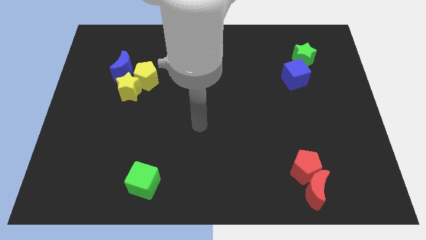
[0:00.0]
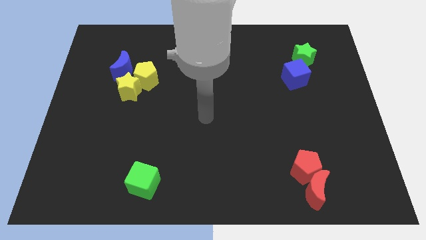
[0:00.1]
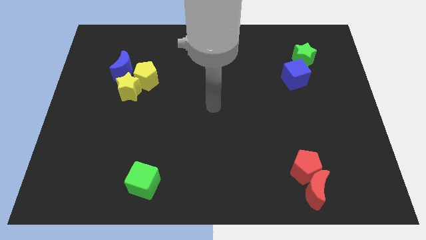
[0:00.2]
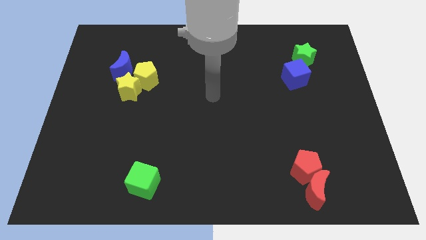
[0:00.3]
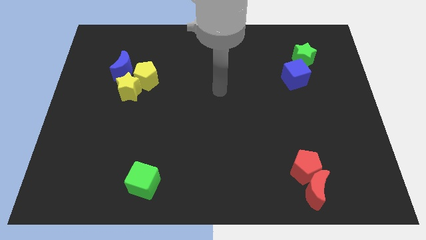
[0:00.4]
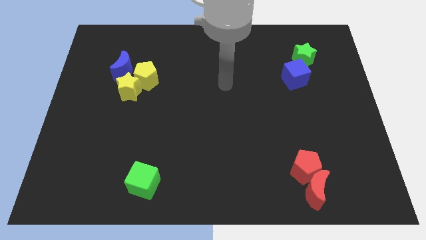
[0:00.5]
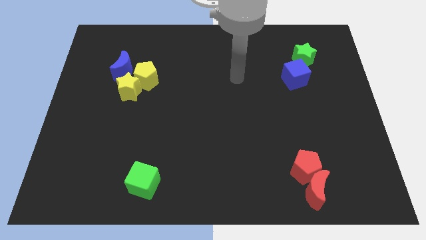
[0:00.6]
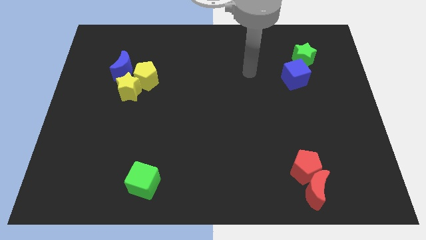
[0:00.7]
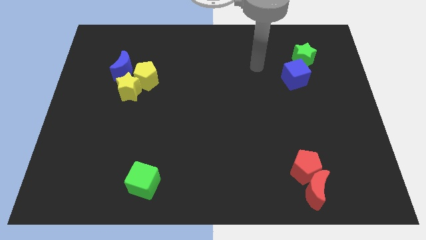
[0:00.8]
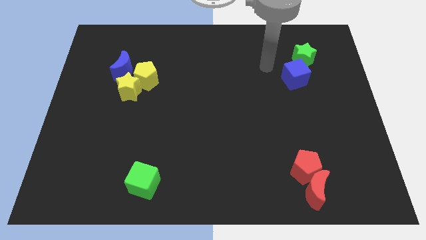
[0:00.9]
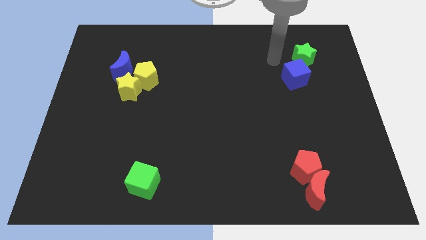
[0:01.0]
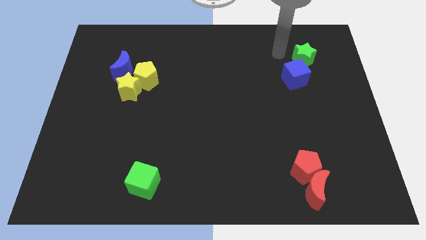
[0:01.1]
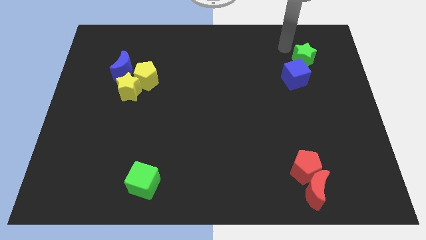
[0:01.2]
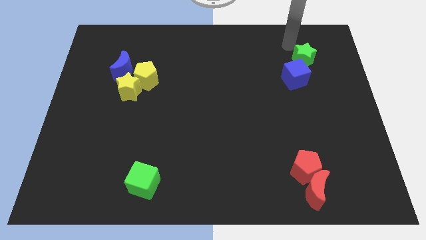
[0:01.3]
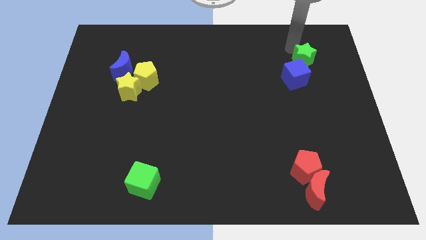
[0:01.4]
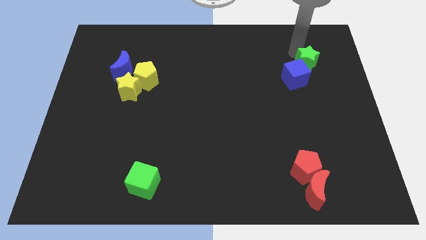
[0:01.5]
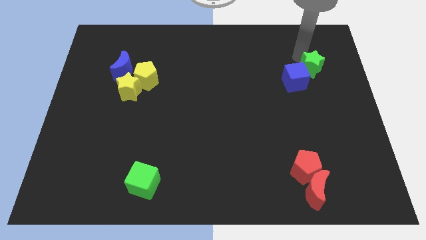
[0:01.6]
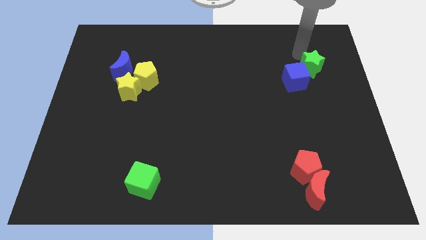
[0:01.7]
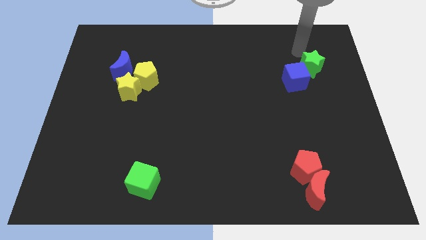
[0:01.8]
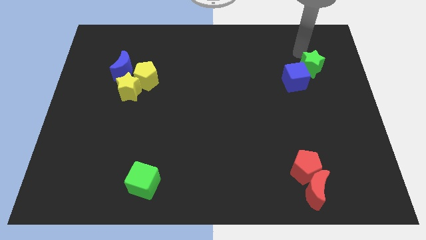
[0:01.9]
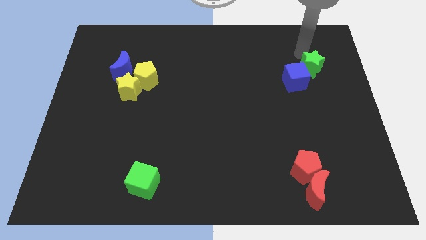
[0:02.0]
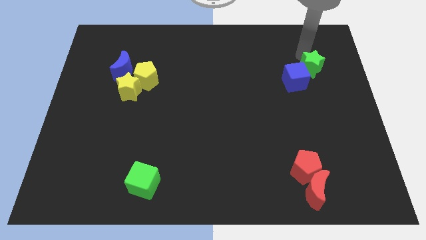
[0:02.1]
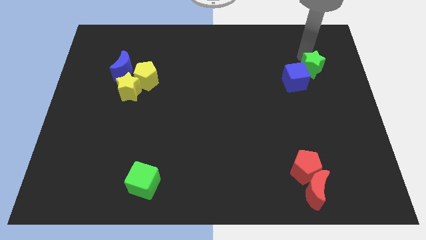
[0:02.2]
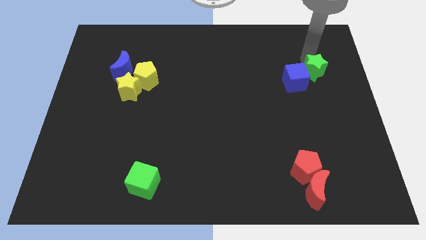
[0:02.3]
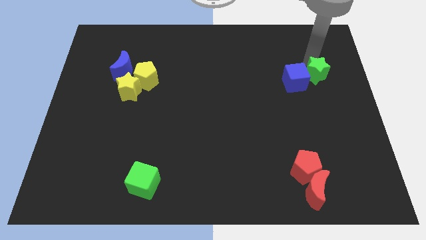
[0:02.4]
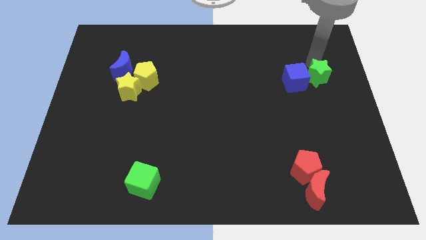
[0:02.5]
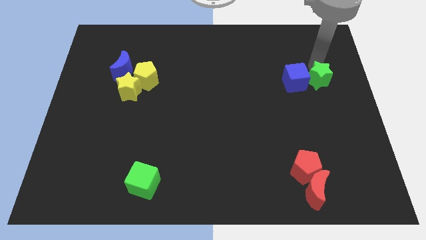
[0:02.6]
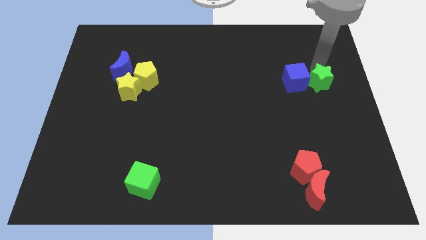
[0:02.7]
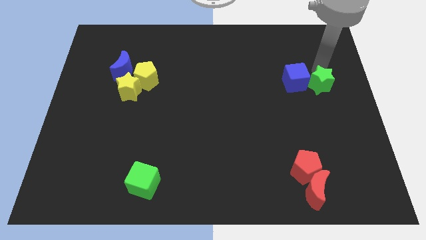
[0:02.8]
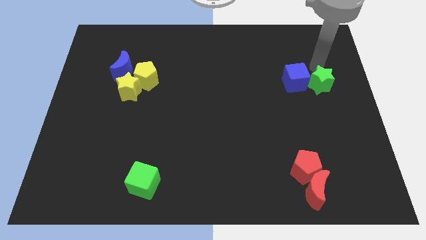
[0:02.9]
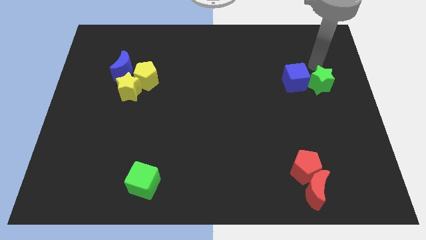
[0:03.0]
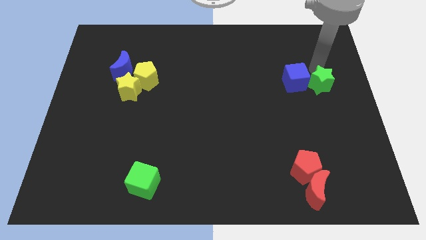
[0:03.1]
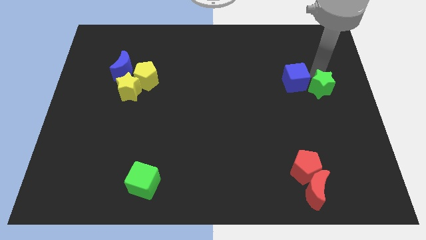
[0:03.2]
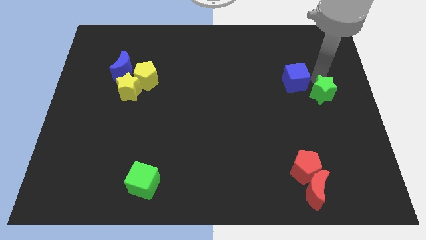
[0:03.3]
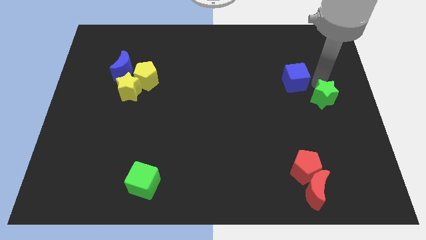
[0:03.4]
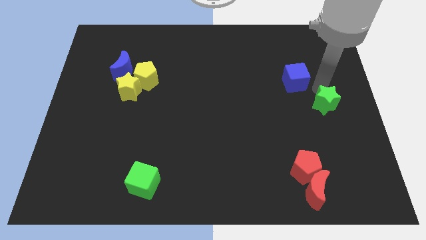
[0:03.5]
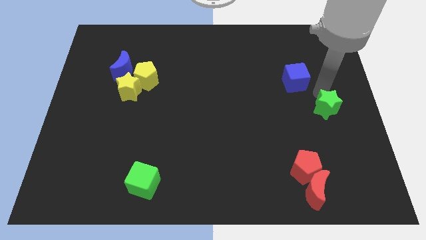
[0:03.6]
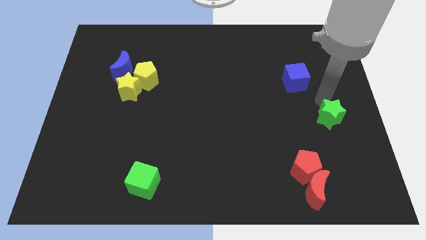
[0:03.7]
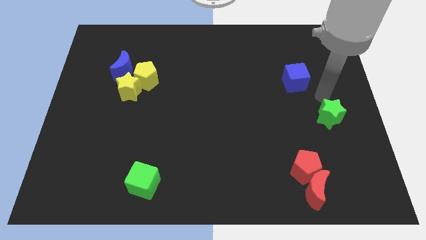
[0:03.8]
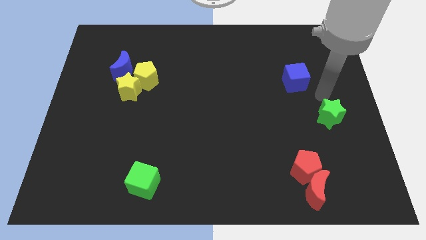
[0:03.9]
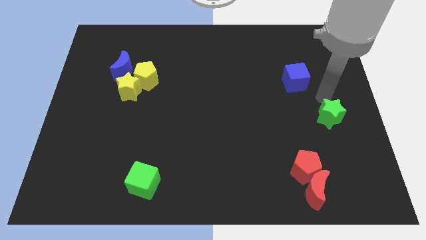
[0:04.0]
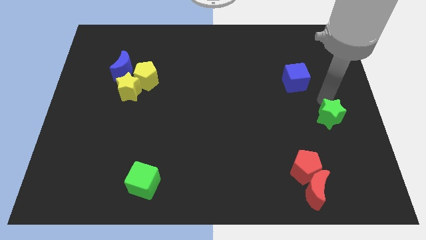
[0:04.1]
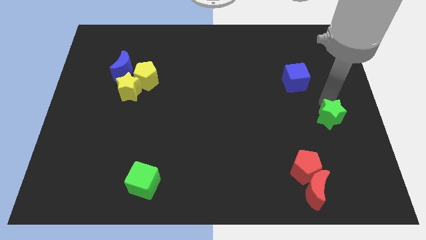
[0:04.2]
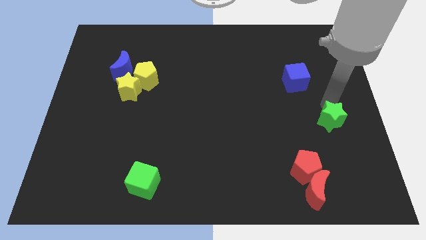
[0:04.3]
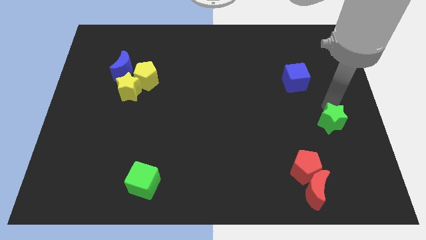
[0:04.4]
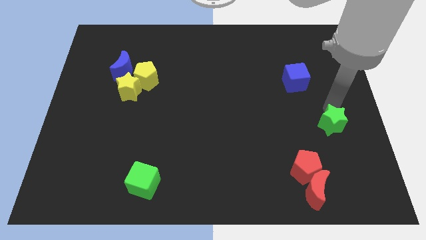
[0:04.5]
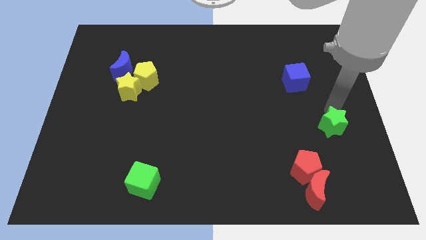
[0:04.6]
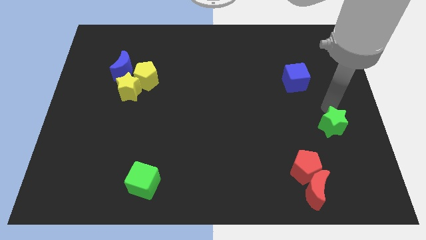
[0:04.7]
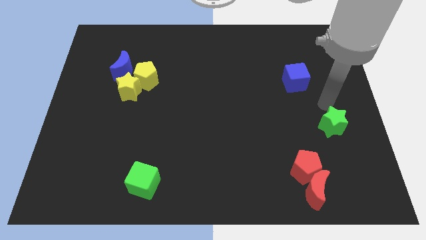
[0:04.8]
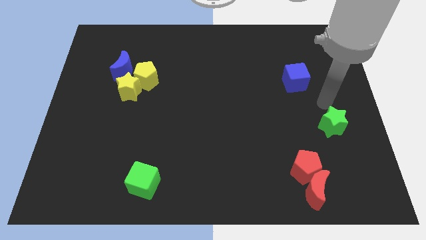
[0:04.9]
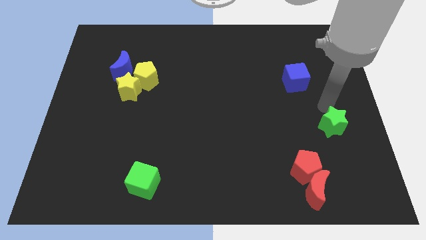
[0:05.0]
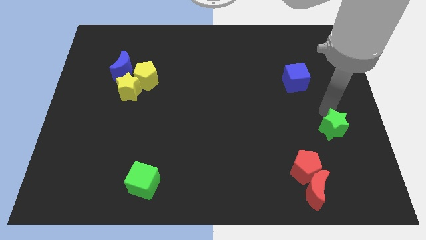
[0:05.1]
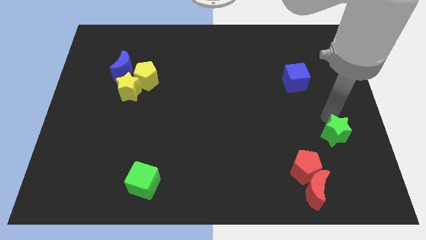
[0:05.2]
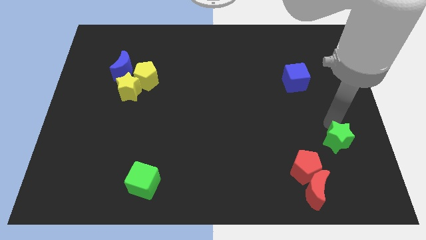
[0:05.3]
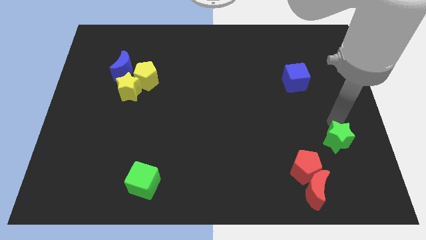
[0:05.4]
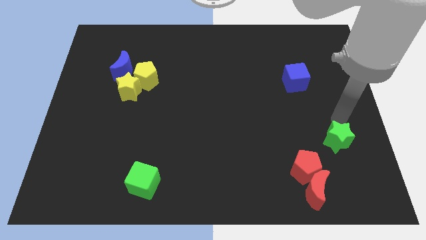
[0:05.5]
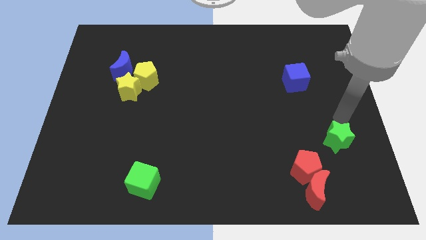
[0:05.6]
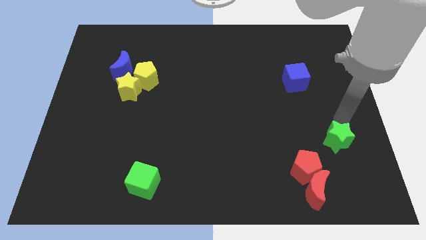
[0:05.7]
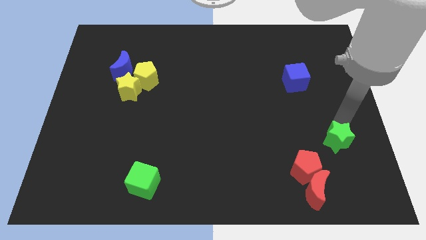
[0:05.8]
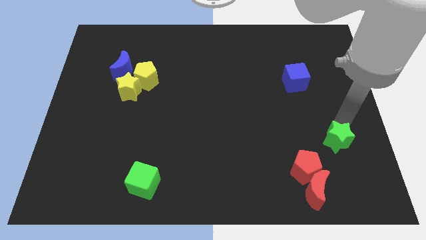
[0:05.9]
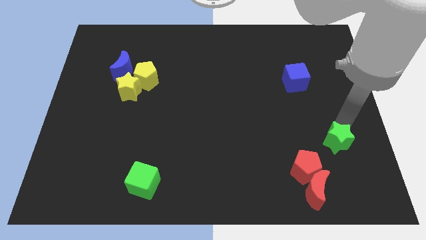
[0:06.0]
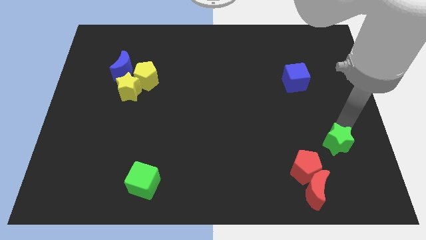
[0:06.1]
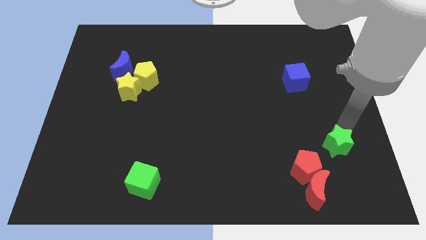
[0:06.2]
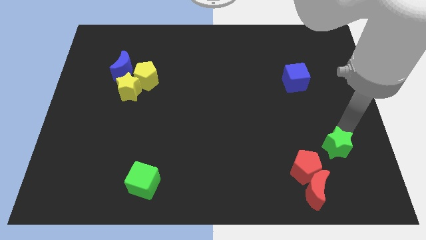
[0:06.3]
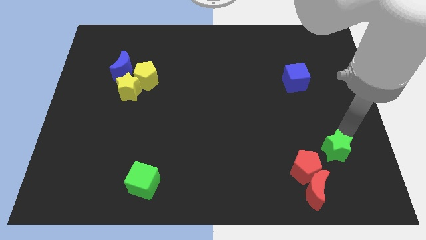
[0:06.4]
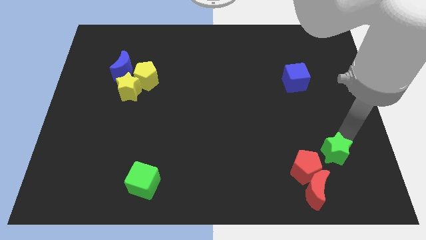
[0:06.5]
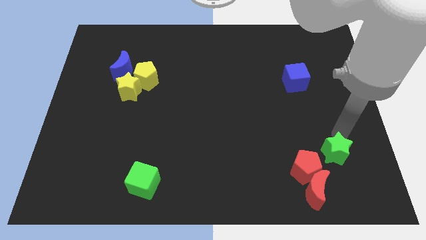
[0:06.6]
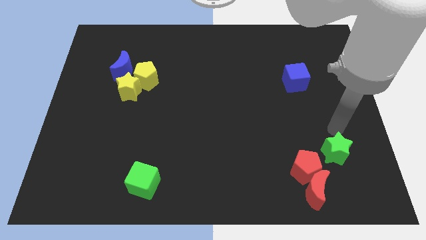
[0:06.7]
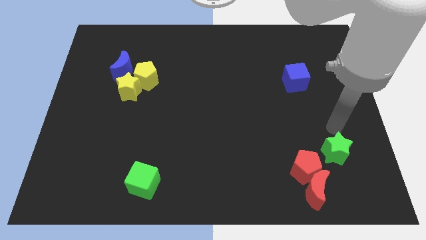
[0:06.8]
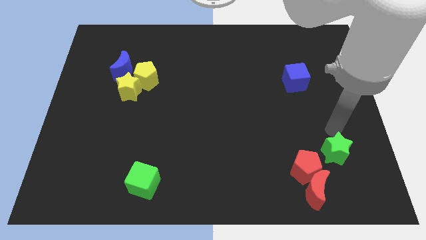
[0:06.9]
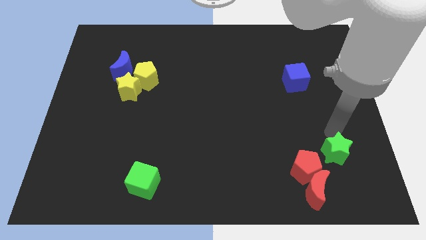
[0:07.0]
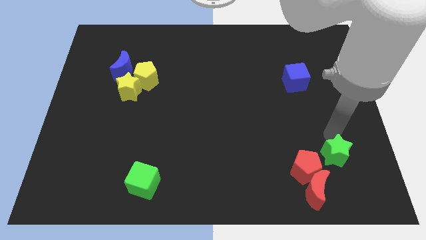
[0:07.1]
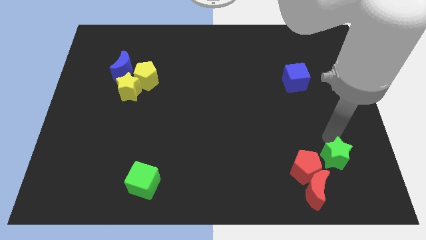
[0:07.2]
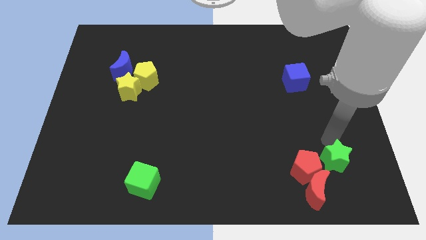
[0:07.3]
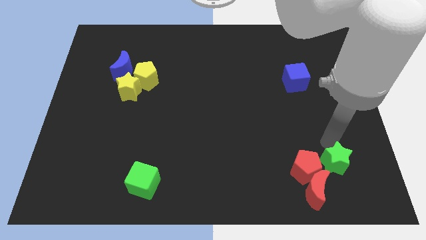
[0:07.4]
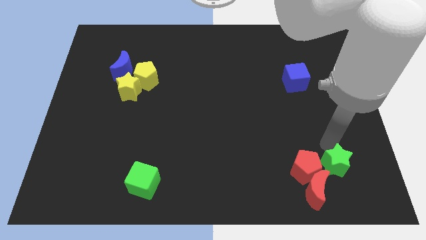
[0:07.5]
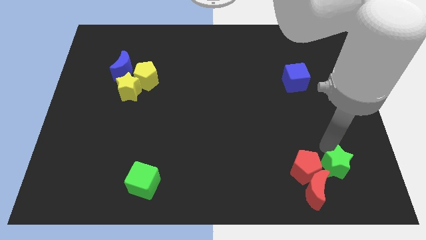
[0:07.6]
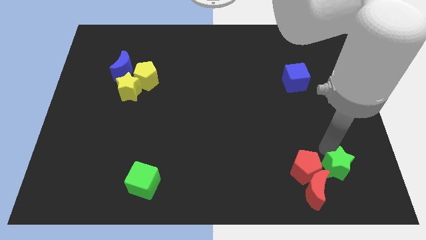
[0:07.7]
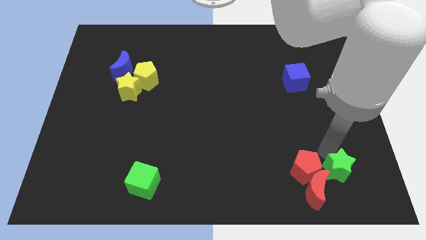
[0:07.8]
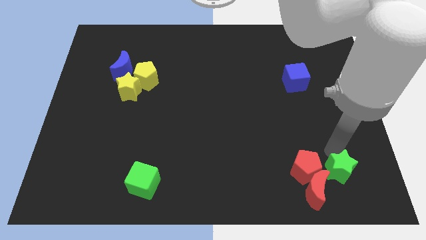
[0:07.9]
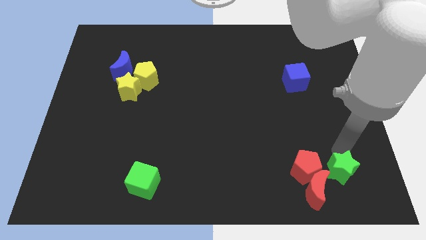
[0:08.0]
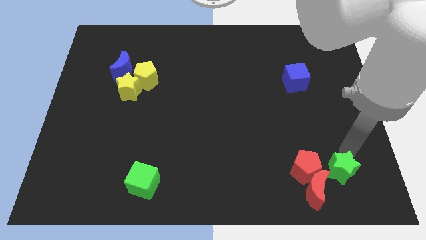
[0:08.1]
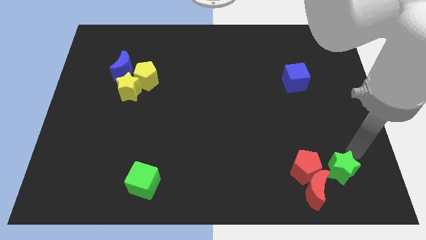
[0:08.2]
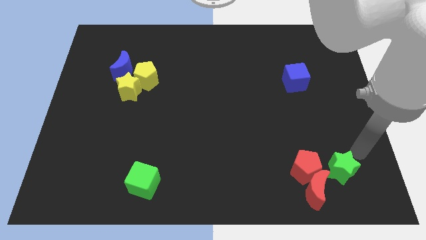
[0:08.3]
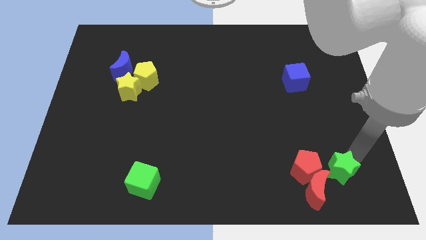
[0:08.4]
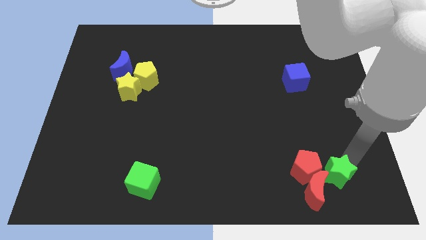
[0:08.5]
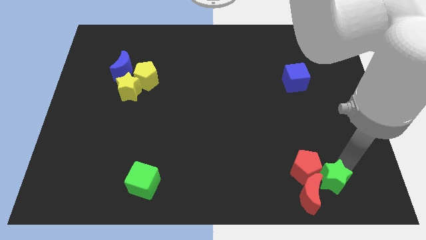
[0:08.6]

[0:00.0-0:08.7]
slide the green star close to the red moon
